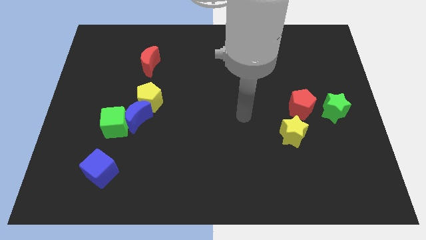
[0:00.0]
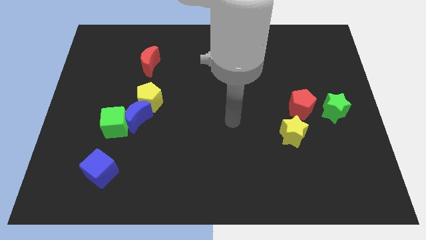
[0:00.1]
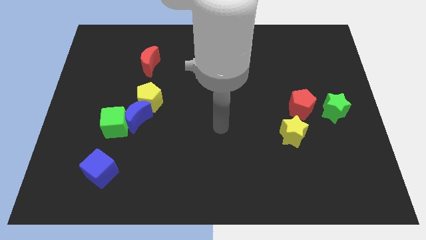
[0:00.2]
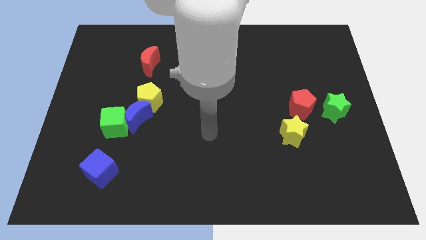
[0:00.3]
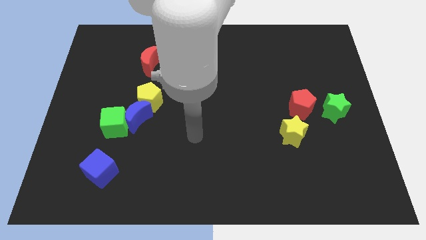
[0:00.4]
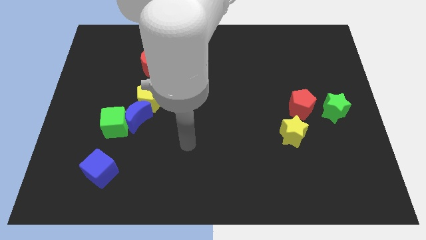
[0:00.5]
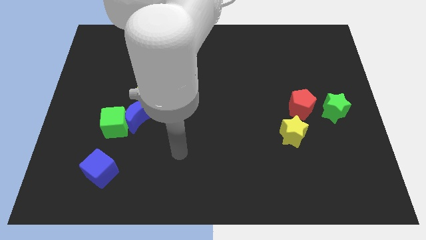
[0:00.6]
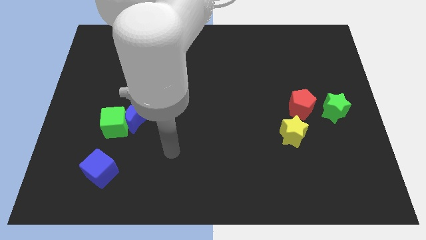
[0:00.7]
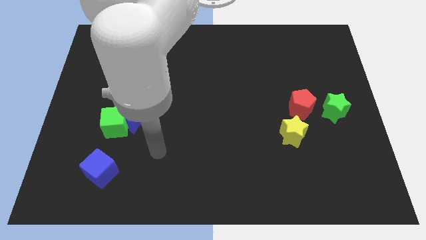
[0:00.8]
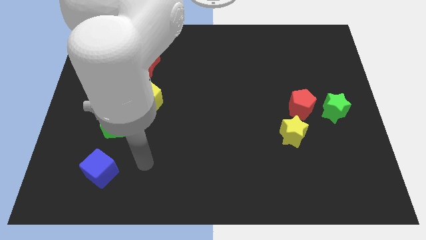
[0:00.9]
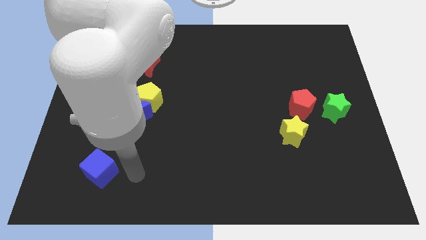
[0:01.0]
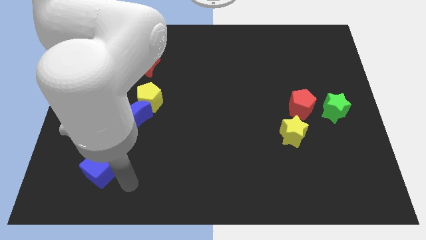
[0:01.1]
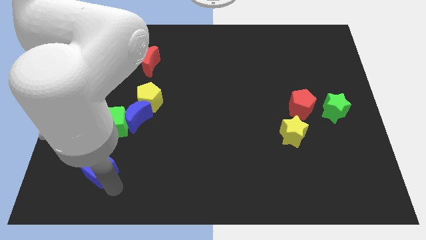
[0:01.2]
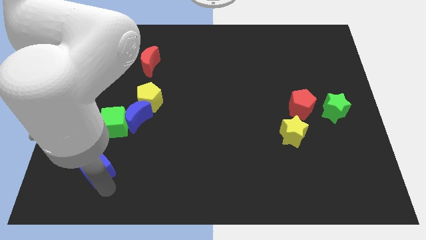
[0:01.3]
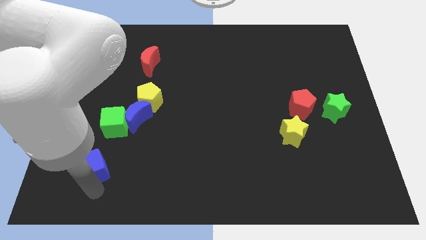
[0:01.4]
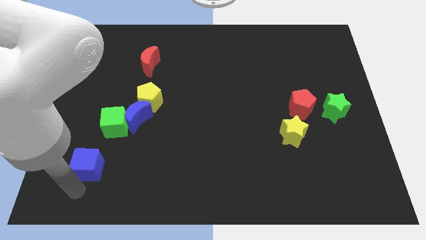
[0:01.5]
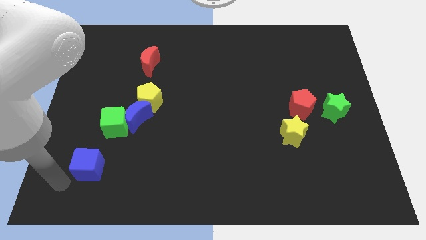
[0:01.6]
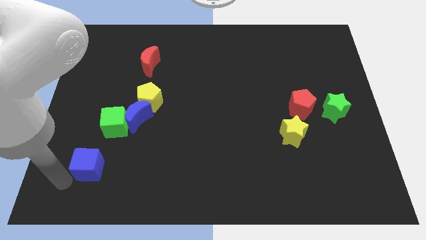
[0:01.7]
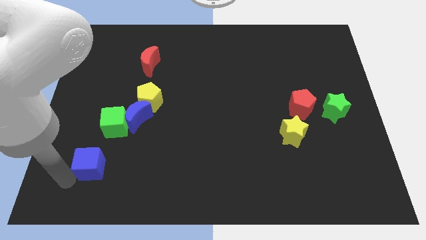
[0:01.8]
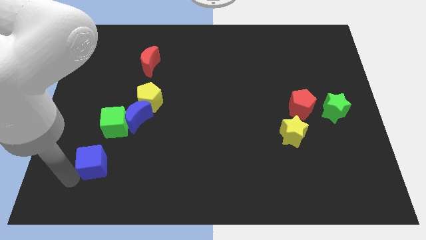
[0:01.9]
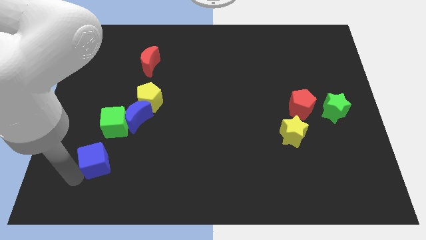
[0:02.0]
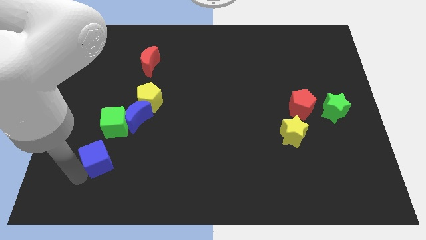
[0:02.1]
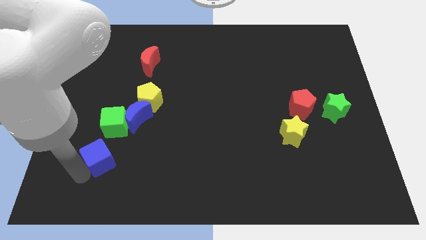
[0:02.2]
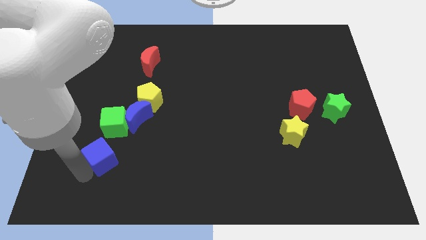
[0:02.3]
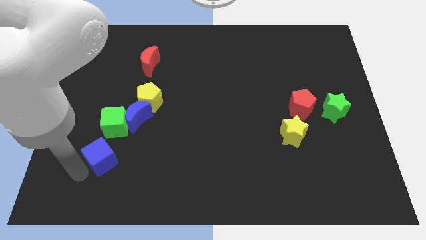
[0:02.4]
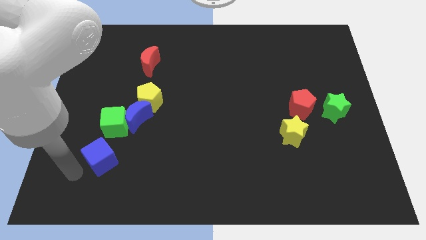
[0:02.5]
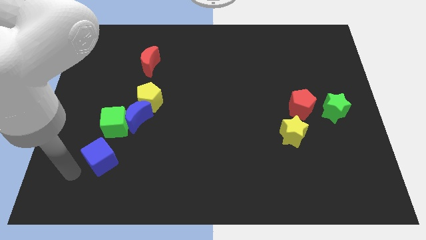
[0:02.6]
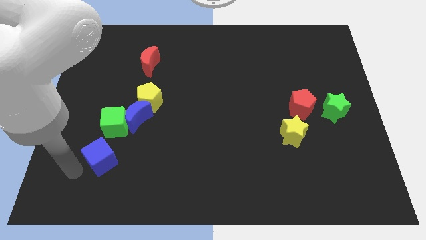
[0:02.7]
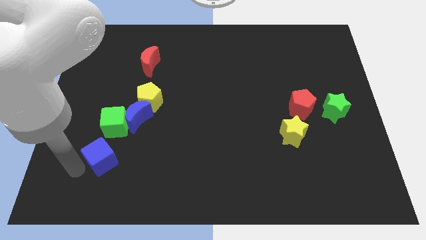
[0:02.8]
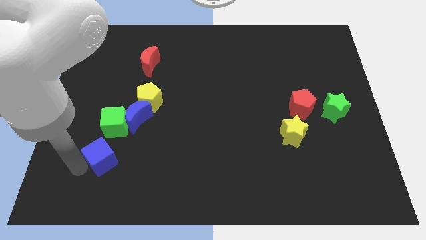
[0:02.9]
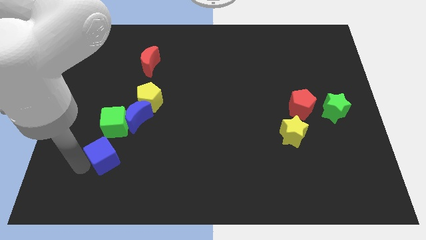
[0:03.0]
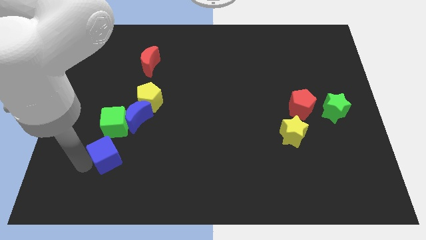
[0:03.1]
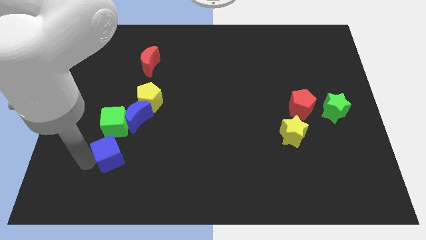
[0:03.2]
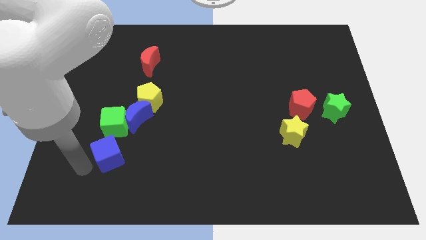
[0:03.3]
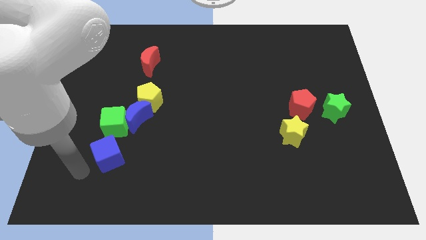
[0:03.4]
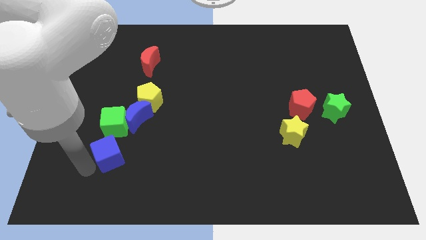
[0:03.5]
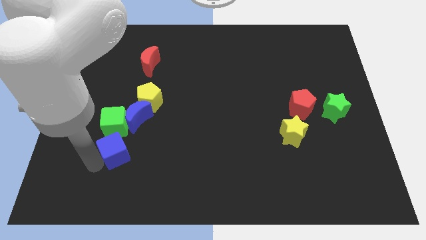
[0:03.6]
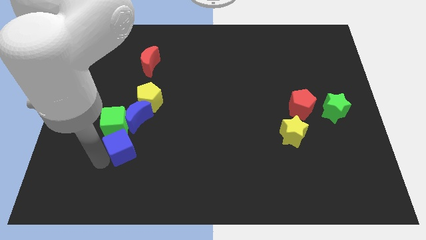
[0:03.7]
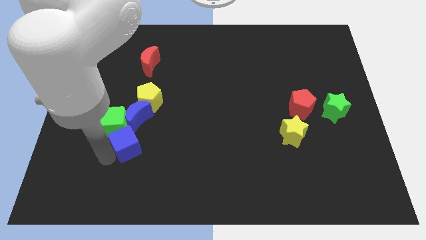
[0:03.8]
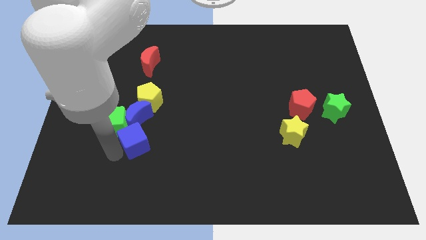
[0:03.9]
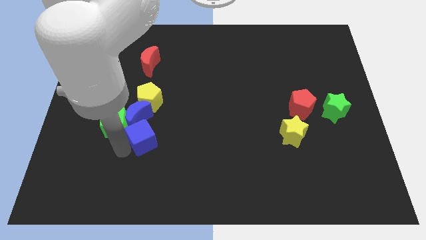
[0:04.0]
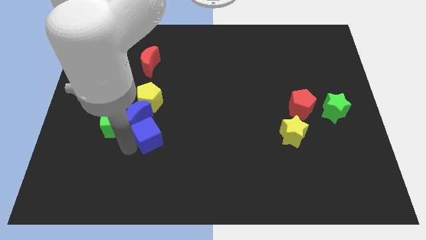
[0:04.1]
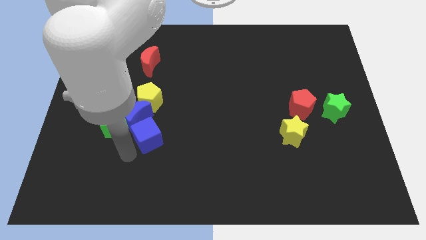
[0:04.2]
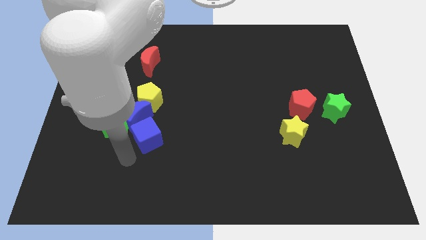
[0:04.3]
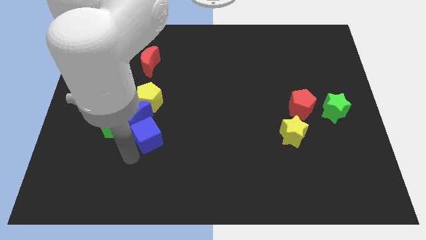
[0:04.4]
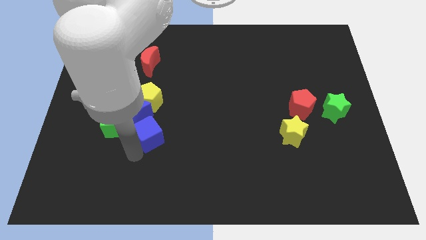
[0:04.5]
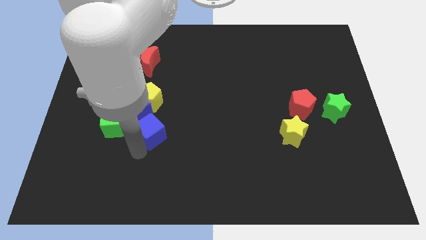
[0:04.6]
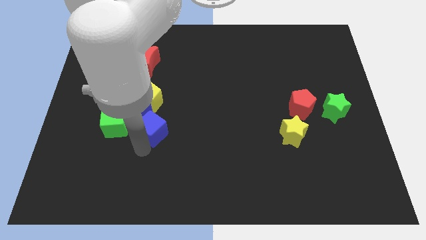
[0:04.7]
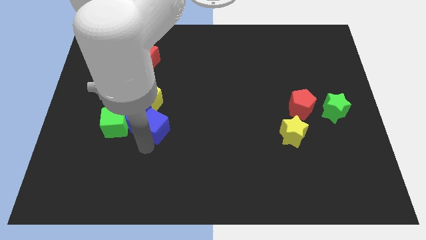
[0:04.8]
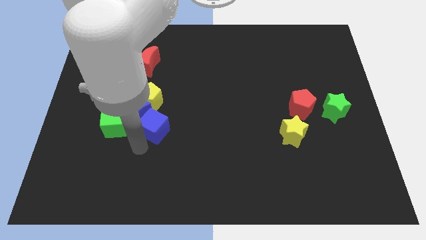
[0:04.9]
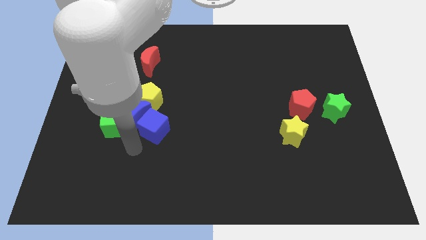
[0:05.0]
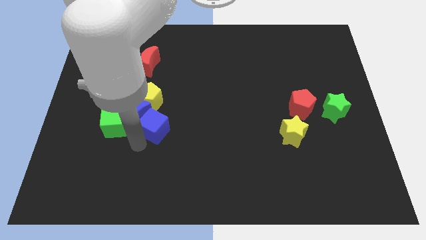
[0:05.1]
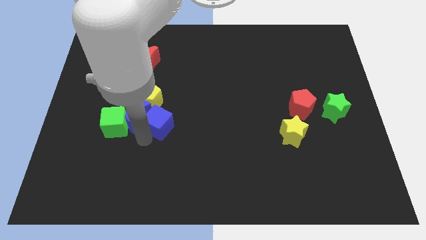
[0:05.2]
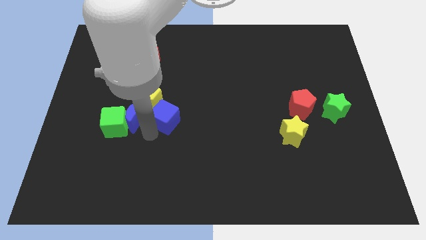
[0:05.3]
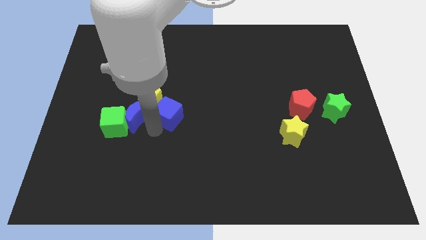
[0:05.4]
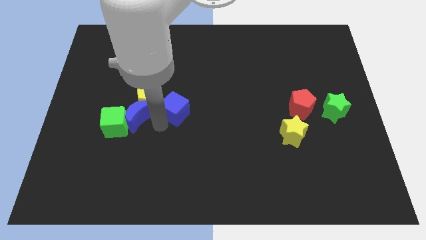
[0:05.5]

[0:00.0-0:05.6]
slide the blue cube up and to the right diagonally

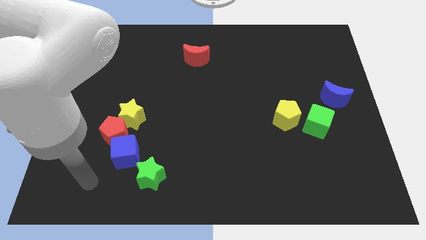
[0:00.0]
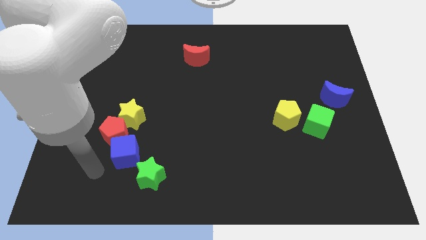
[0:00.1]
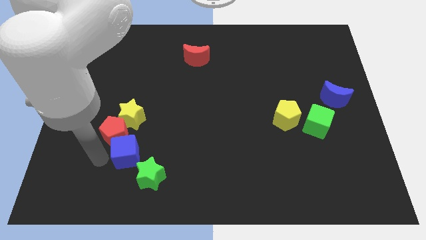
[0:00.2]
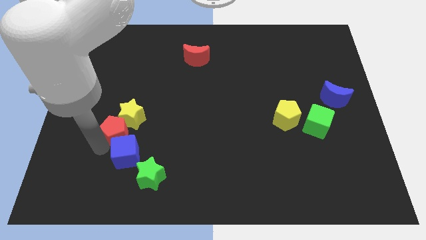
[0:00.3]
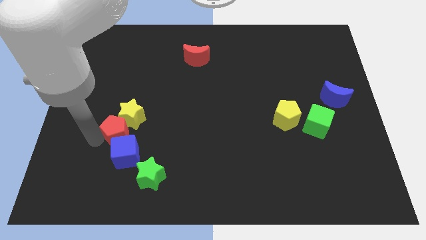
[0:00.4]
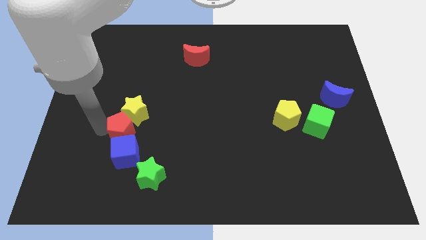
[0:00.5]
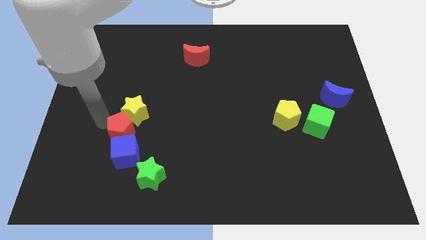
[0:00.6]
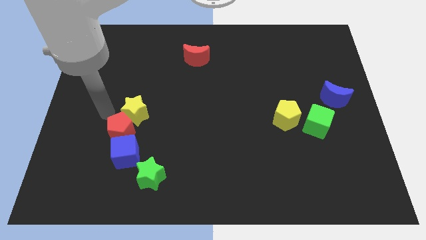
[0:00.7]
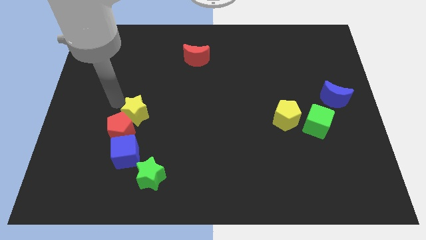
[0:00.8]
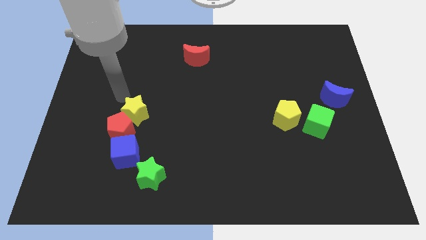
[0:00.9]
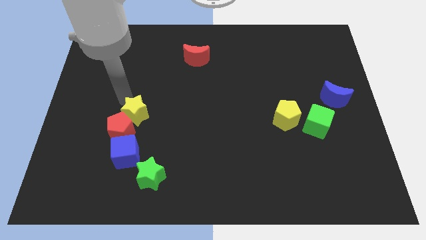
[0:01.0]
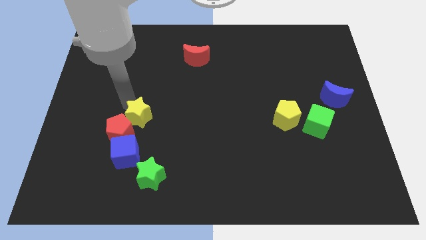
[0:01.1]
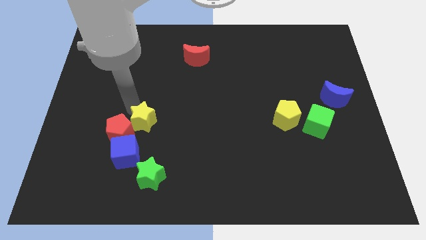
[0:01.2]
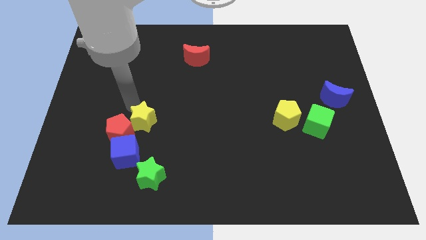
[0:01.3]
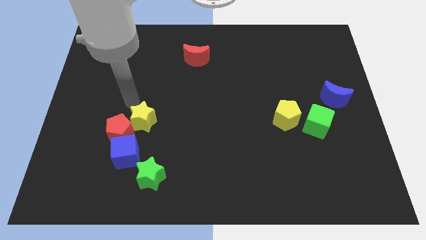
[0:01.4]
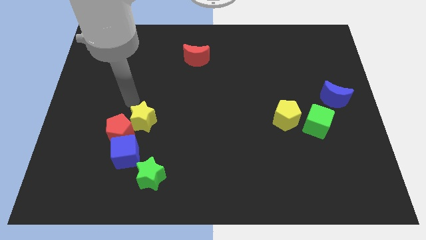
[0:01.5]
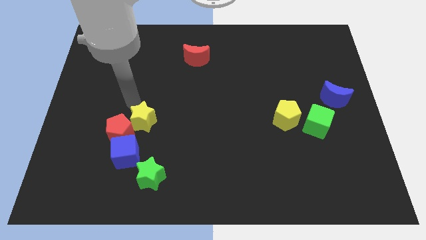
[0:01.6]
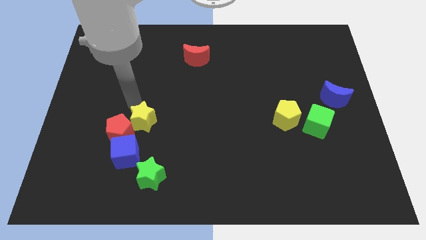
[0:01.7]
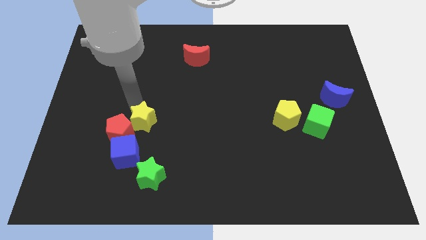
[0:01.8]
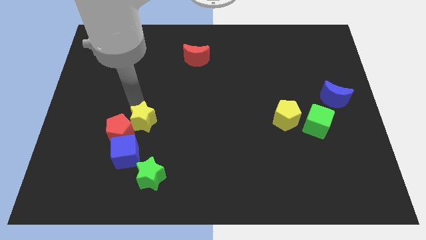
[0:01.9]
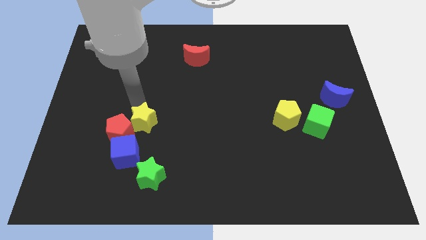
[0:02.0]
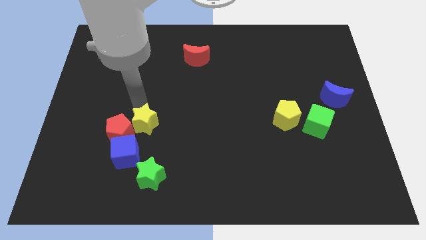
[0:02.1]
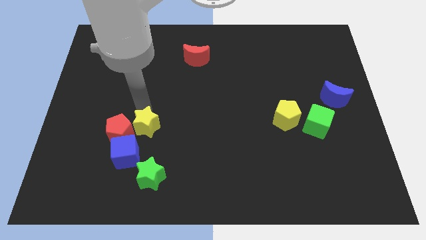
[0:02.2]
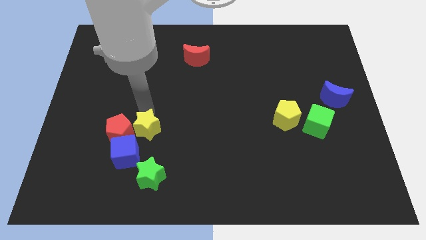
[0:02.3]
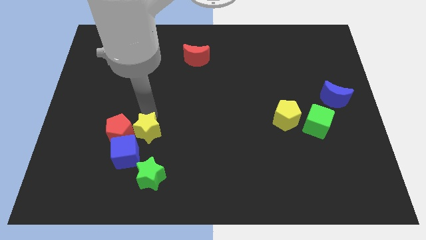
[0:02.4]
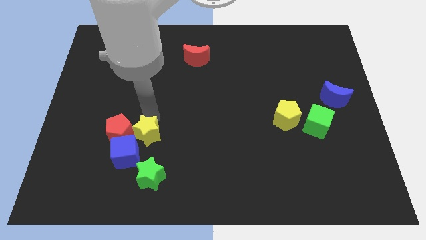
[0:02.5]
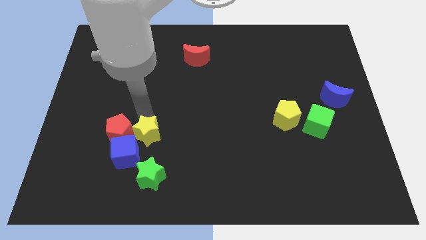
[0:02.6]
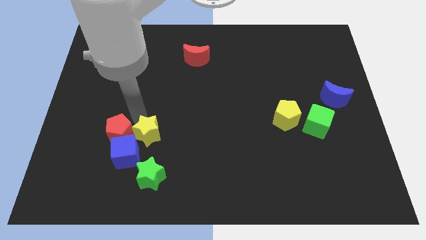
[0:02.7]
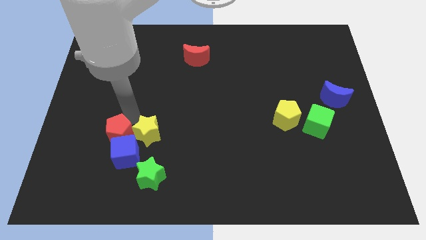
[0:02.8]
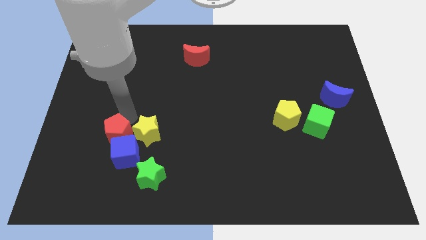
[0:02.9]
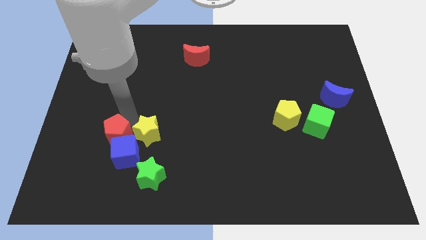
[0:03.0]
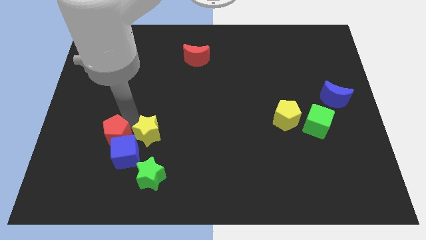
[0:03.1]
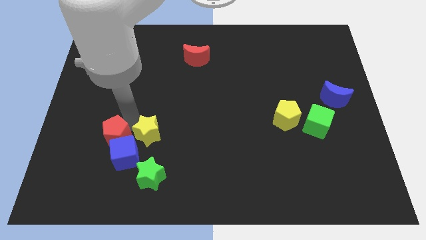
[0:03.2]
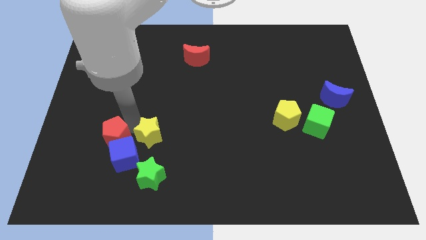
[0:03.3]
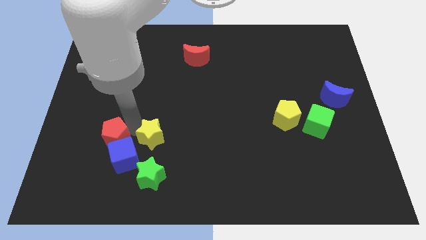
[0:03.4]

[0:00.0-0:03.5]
slightly move the yellow star downwards and right diagonally
